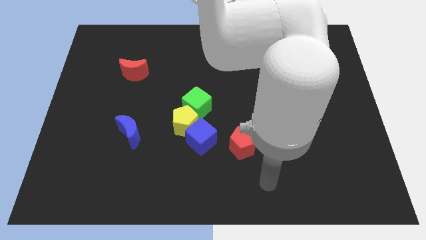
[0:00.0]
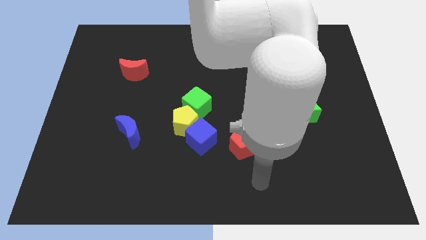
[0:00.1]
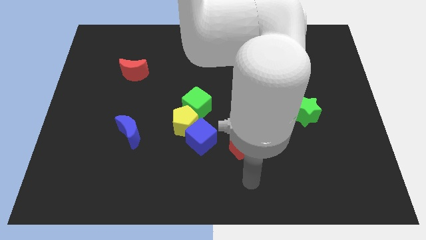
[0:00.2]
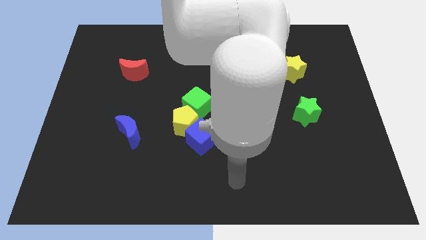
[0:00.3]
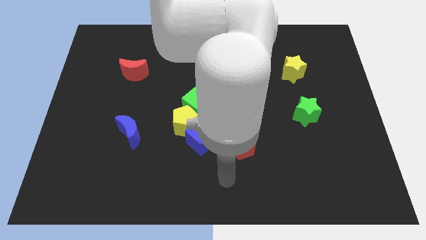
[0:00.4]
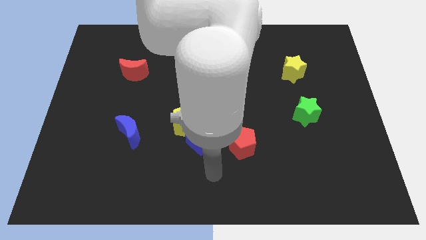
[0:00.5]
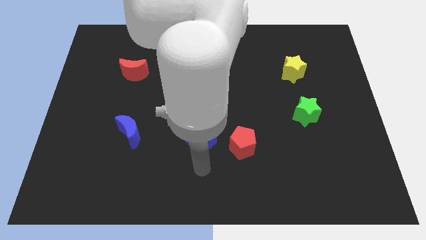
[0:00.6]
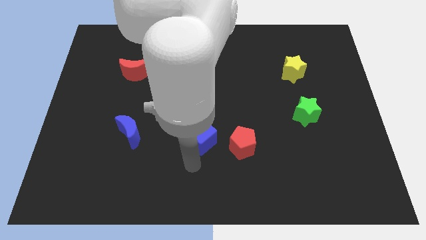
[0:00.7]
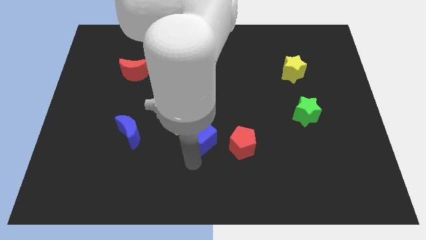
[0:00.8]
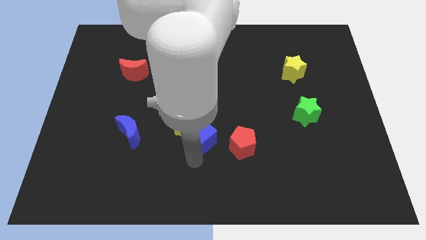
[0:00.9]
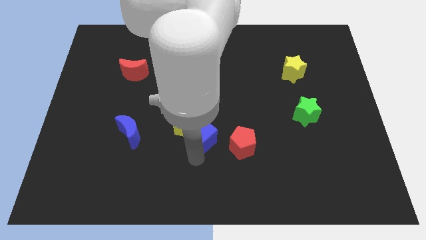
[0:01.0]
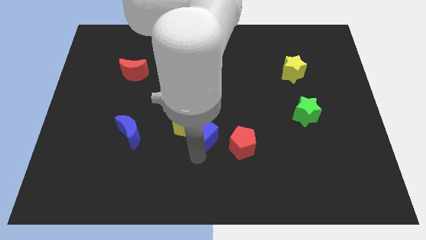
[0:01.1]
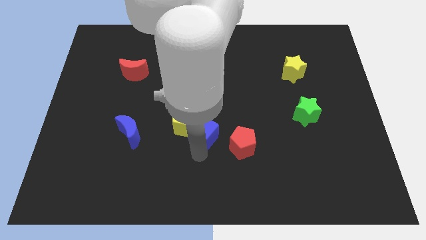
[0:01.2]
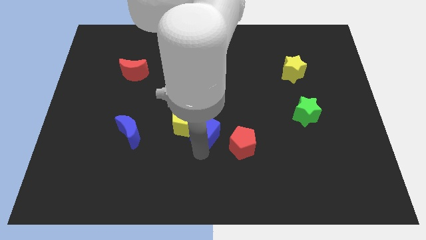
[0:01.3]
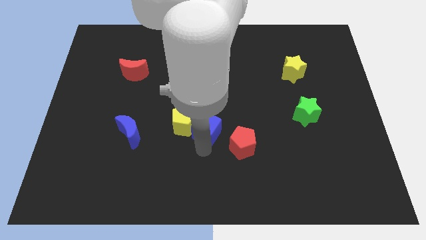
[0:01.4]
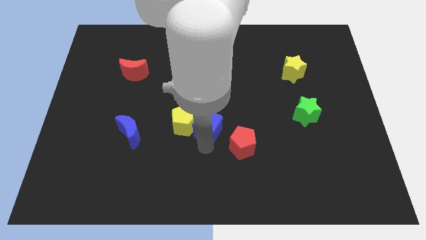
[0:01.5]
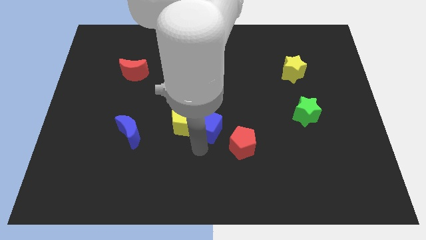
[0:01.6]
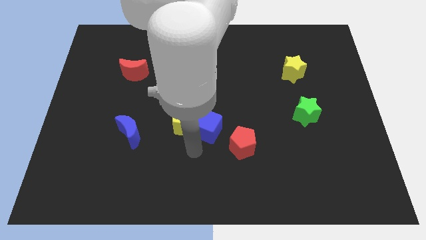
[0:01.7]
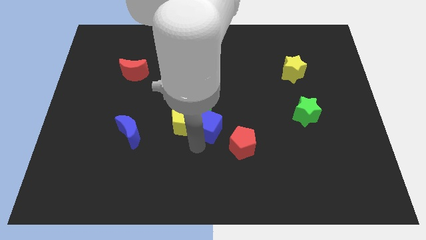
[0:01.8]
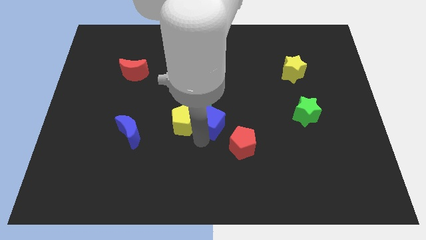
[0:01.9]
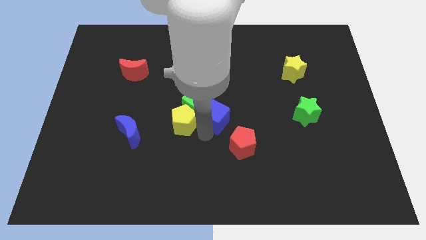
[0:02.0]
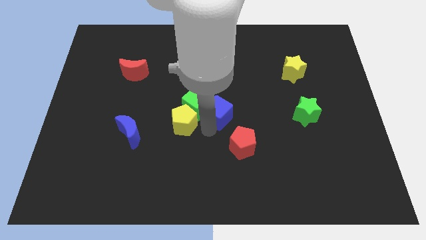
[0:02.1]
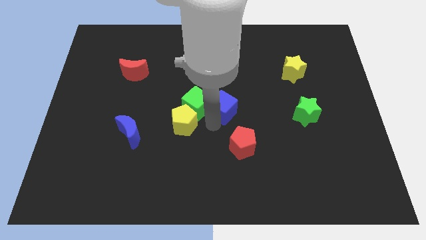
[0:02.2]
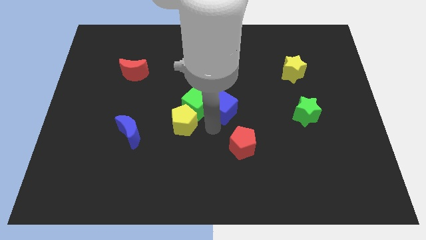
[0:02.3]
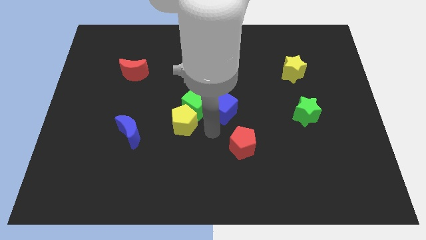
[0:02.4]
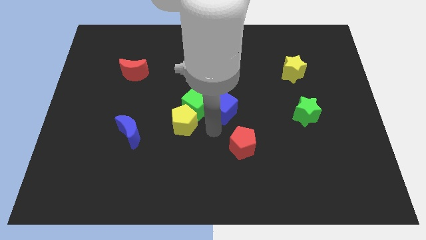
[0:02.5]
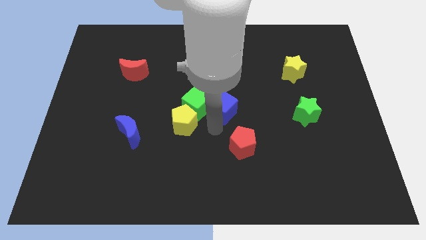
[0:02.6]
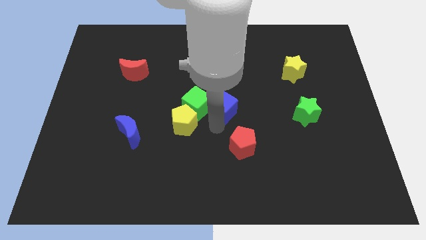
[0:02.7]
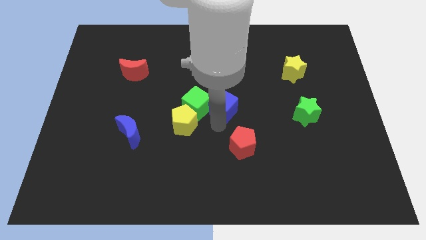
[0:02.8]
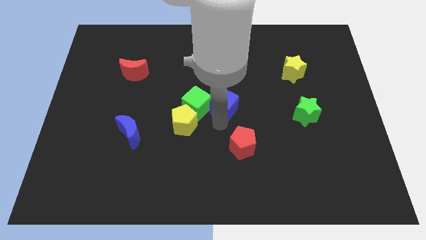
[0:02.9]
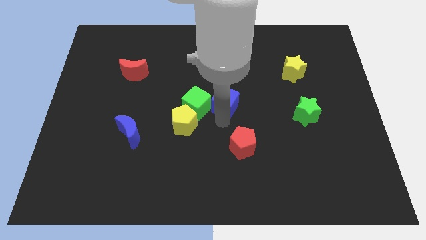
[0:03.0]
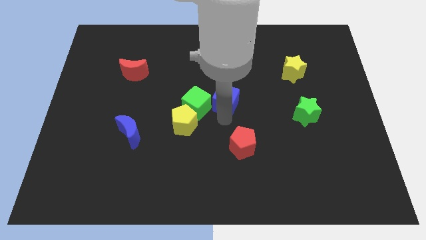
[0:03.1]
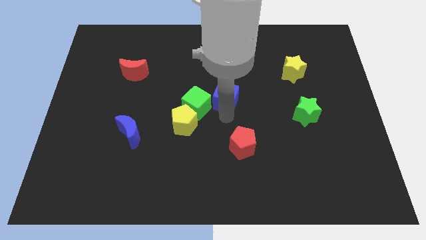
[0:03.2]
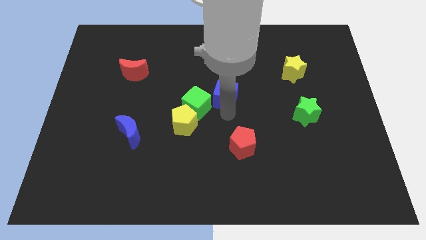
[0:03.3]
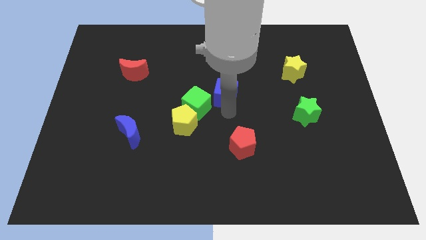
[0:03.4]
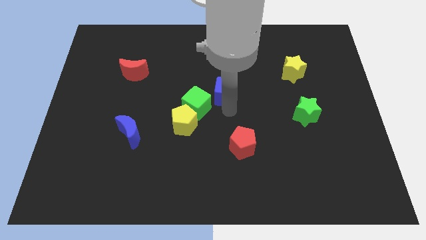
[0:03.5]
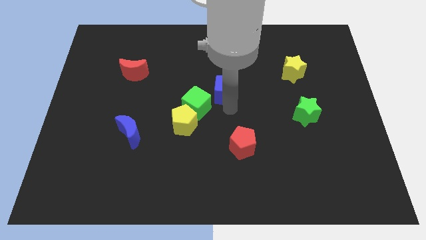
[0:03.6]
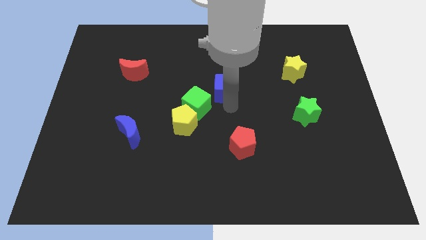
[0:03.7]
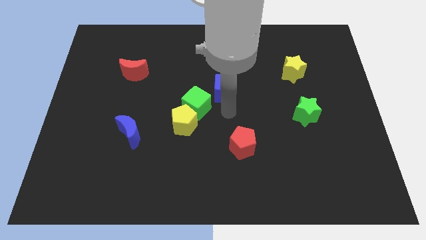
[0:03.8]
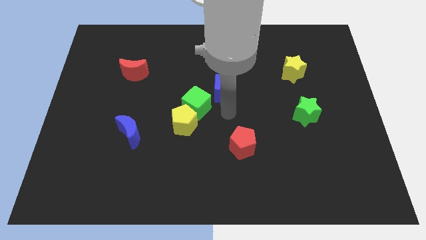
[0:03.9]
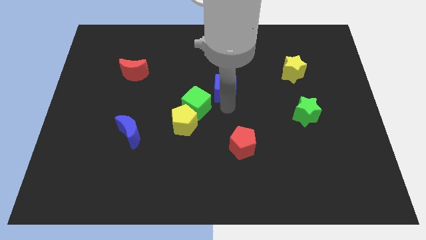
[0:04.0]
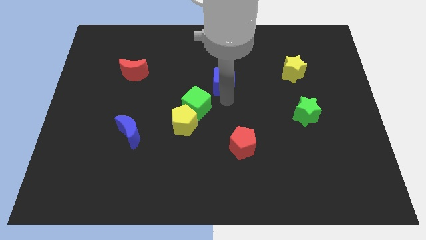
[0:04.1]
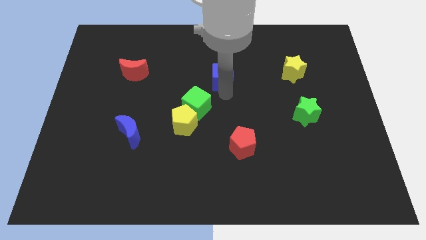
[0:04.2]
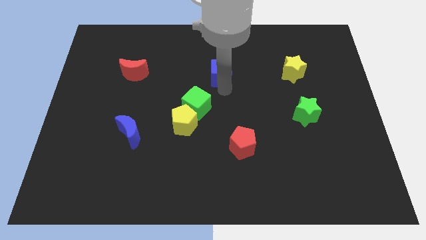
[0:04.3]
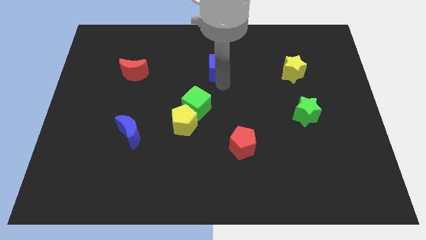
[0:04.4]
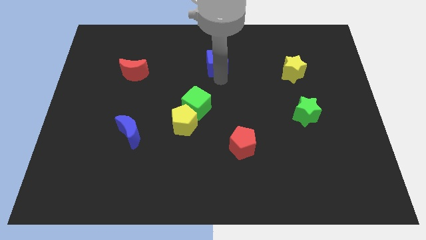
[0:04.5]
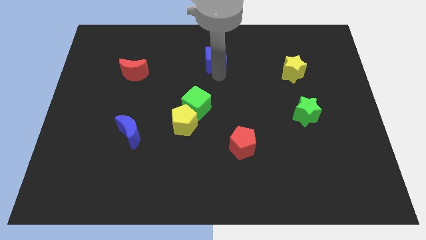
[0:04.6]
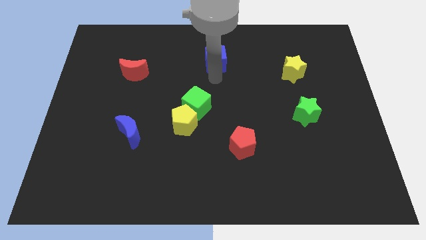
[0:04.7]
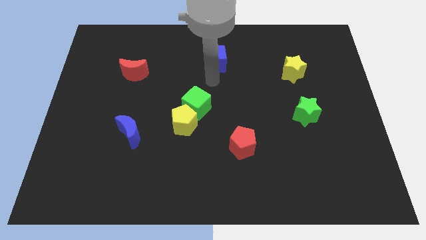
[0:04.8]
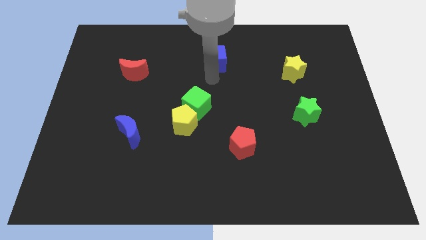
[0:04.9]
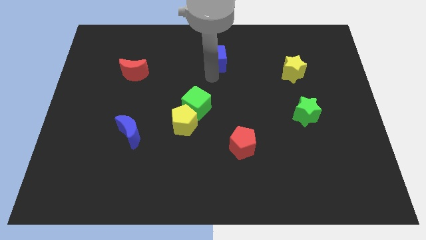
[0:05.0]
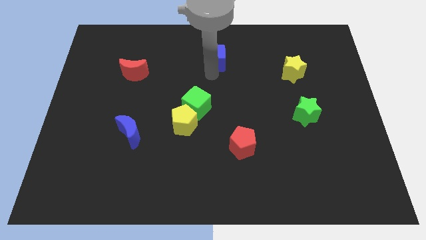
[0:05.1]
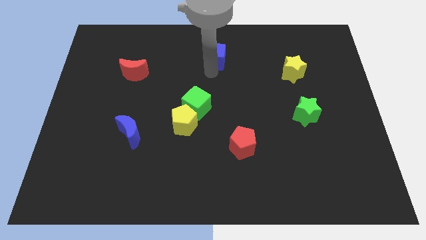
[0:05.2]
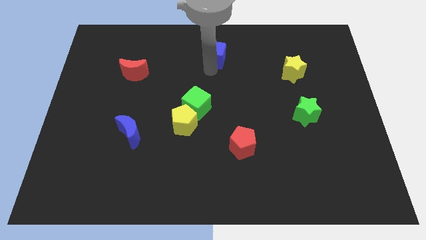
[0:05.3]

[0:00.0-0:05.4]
slide the blue cube to the towards your base
